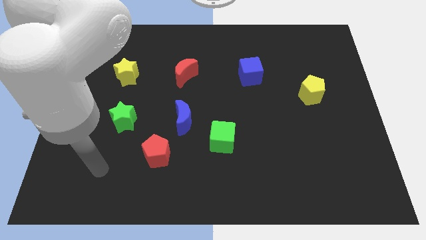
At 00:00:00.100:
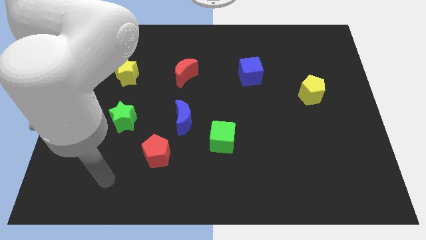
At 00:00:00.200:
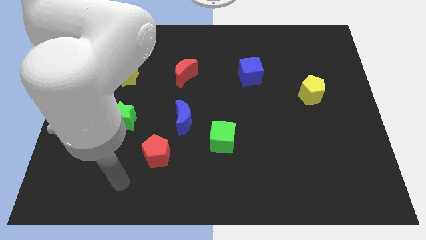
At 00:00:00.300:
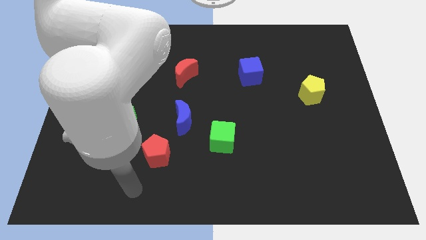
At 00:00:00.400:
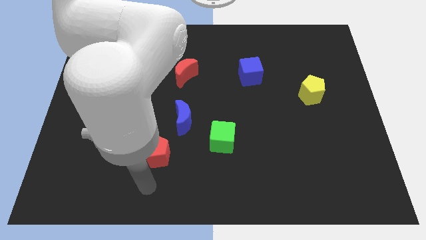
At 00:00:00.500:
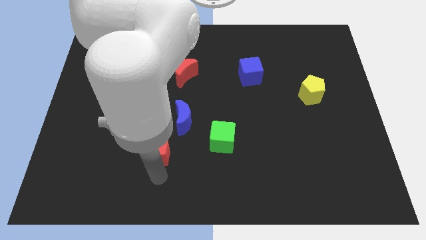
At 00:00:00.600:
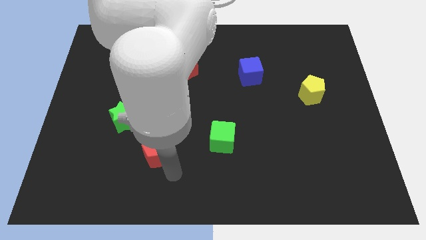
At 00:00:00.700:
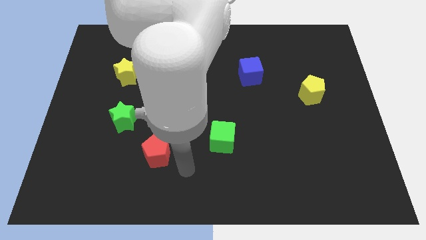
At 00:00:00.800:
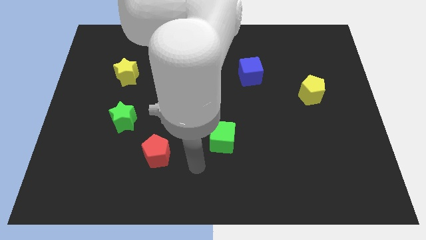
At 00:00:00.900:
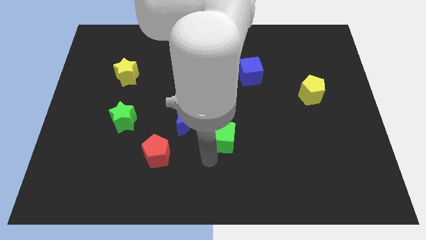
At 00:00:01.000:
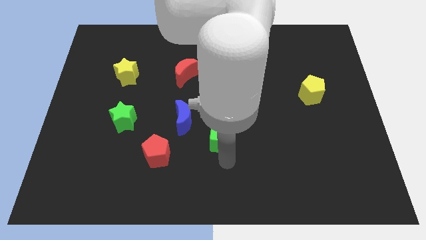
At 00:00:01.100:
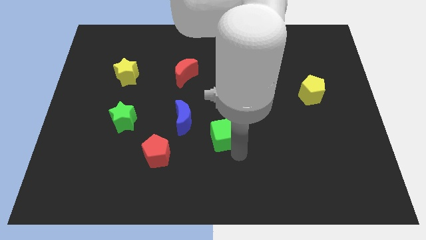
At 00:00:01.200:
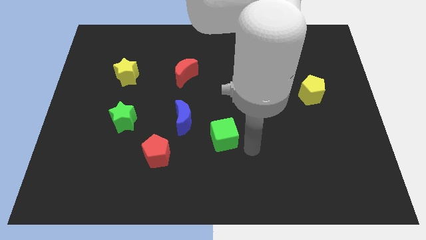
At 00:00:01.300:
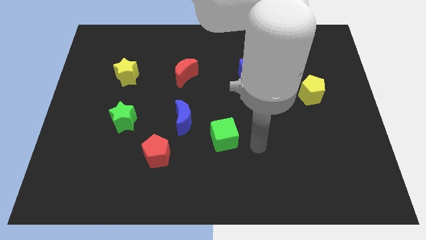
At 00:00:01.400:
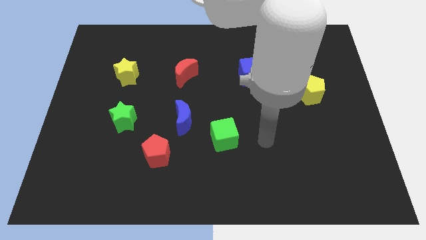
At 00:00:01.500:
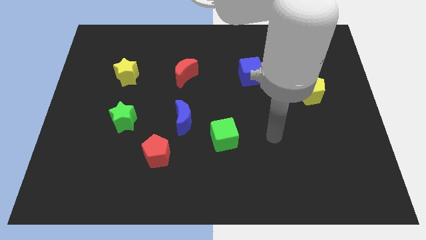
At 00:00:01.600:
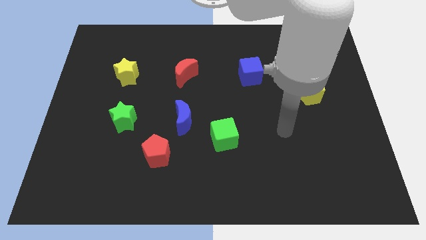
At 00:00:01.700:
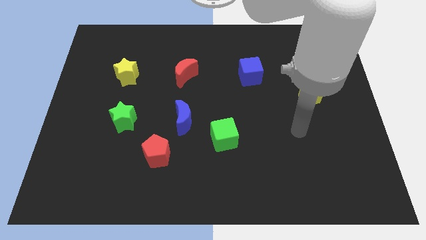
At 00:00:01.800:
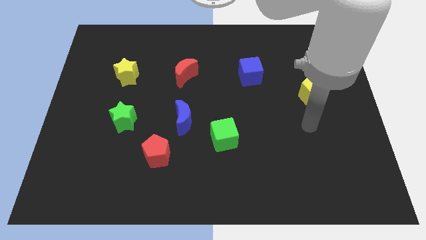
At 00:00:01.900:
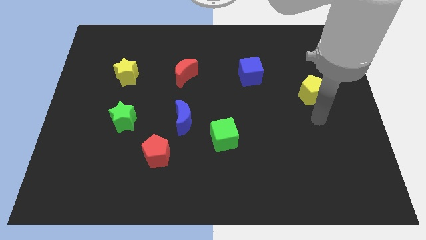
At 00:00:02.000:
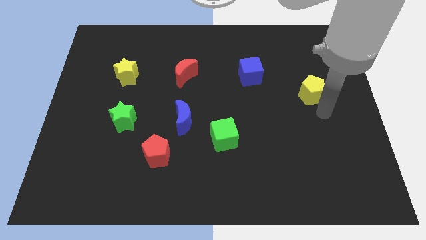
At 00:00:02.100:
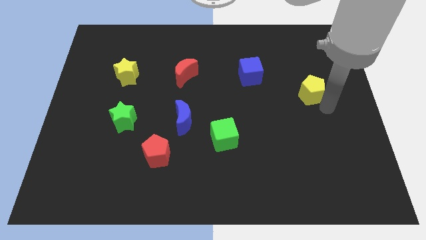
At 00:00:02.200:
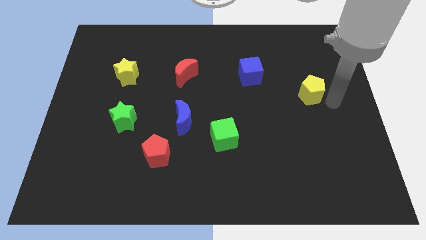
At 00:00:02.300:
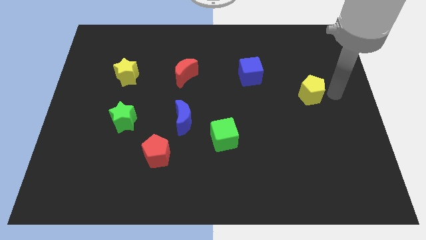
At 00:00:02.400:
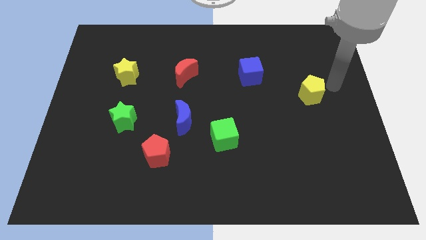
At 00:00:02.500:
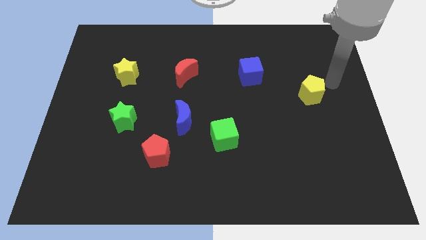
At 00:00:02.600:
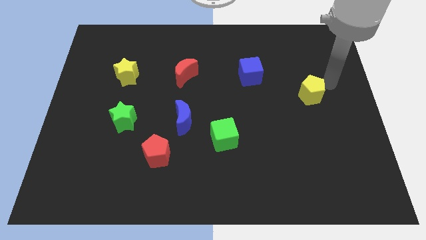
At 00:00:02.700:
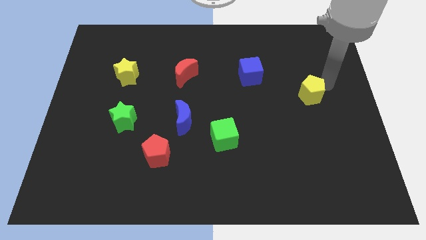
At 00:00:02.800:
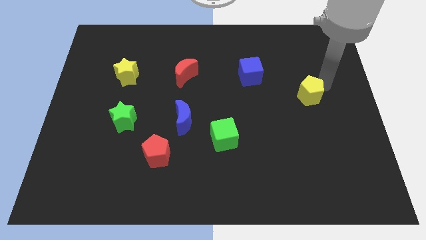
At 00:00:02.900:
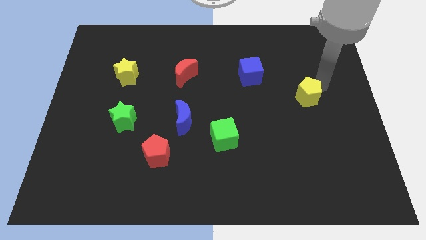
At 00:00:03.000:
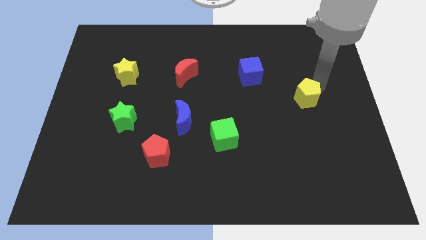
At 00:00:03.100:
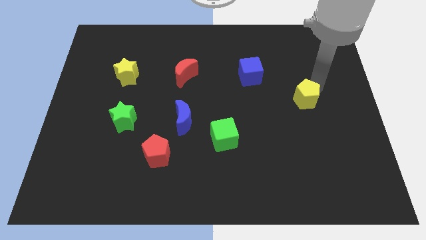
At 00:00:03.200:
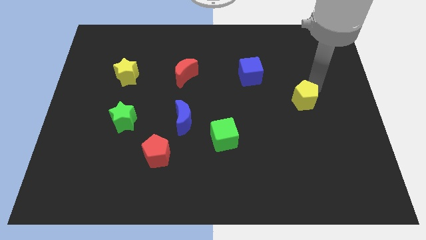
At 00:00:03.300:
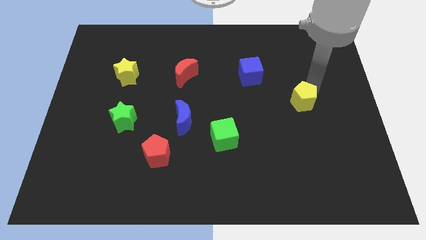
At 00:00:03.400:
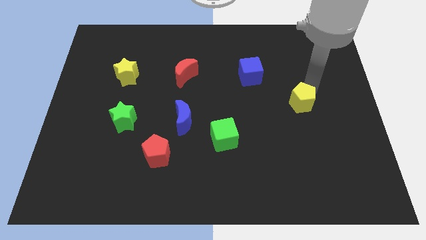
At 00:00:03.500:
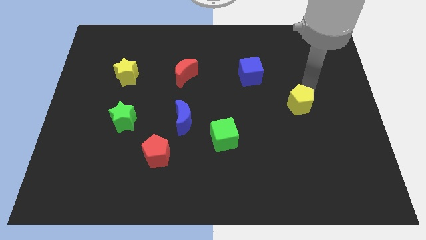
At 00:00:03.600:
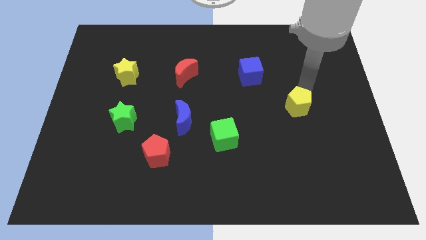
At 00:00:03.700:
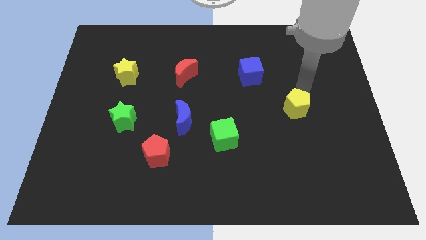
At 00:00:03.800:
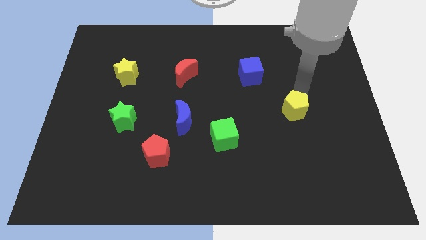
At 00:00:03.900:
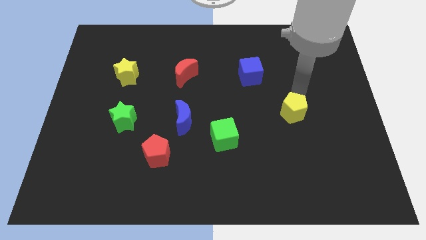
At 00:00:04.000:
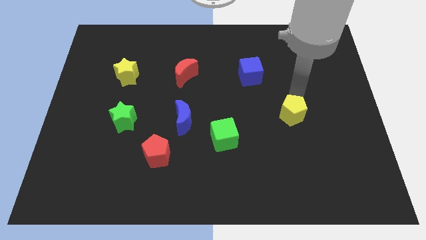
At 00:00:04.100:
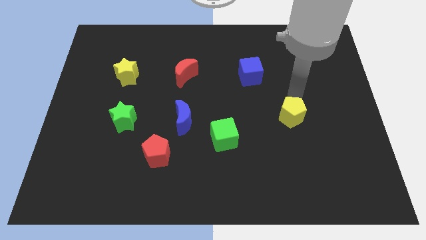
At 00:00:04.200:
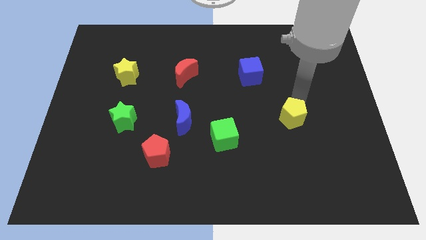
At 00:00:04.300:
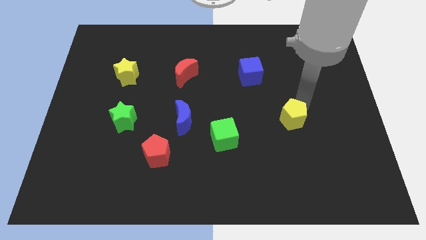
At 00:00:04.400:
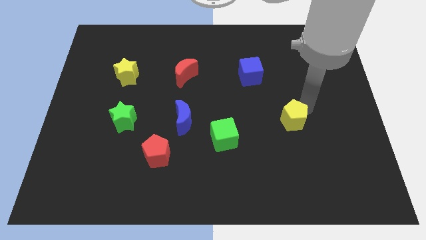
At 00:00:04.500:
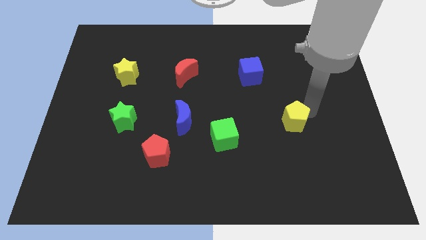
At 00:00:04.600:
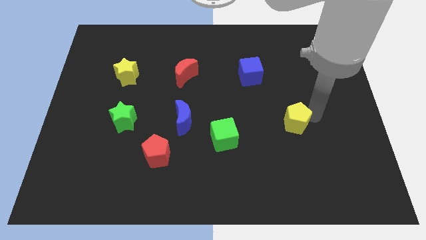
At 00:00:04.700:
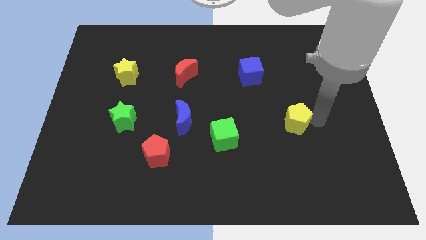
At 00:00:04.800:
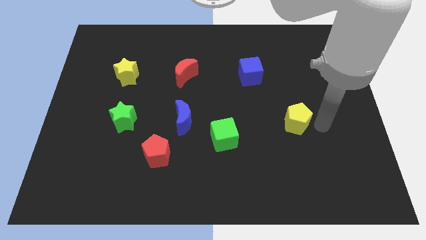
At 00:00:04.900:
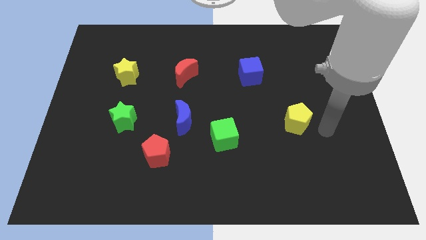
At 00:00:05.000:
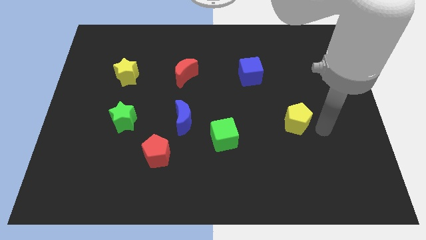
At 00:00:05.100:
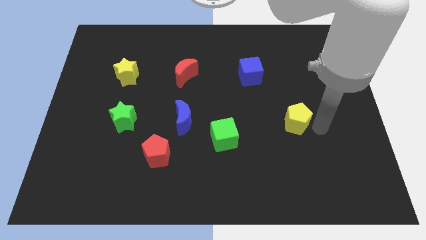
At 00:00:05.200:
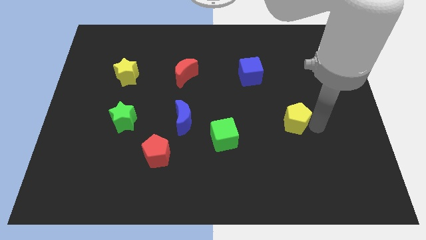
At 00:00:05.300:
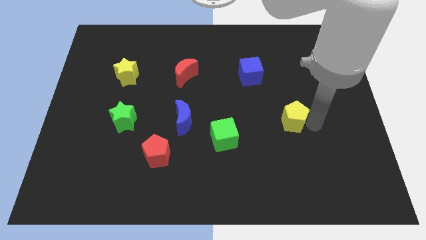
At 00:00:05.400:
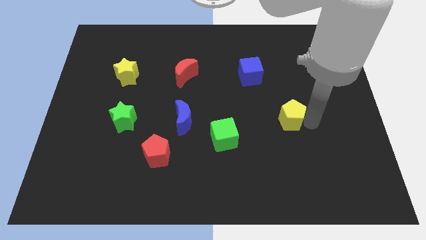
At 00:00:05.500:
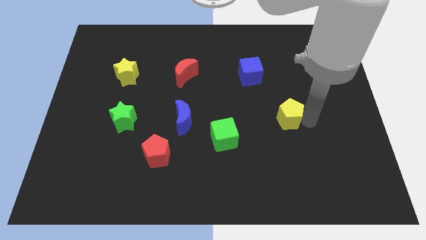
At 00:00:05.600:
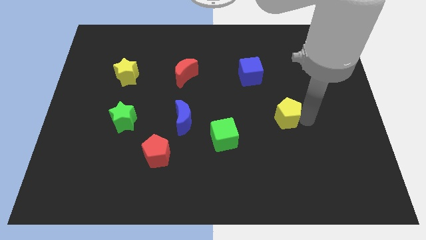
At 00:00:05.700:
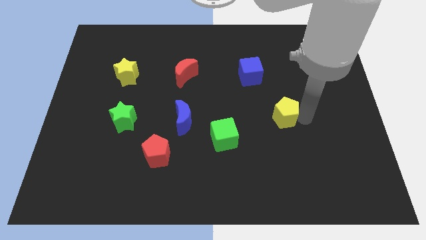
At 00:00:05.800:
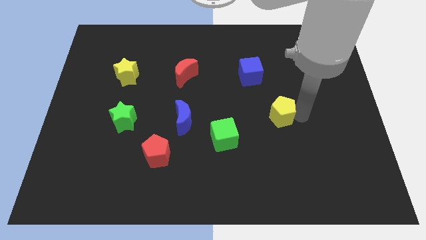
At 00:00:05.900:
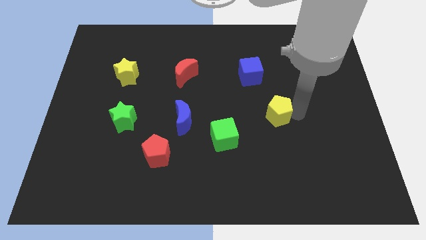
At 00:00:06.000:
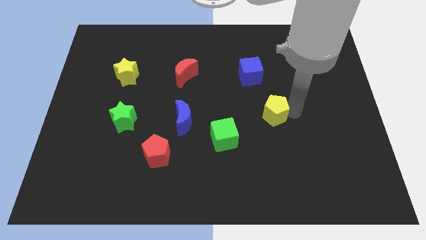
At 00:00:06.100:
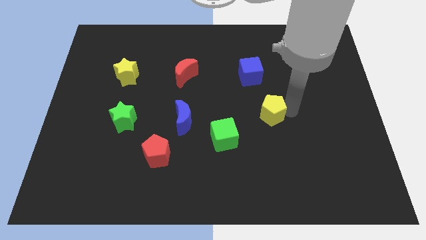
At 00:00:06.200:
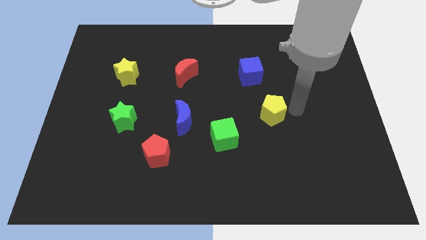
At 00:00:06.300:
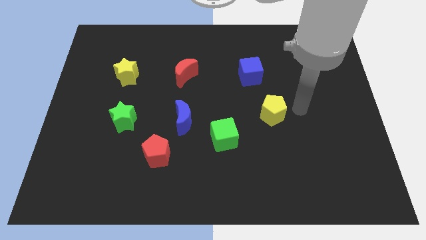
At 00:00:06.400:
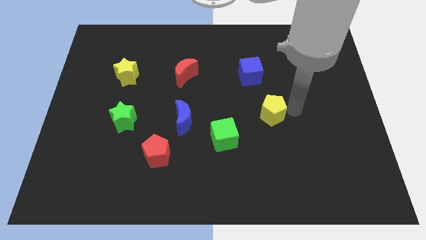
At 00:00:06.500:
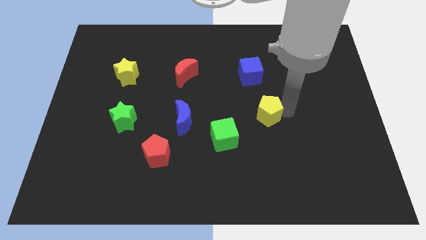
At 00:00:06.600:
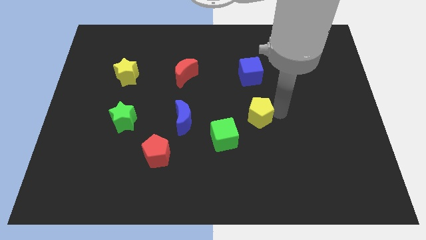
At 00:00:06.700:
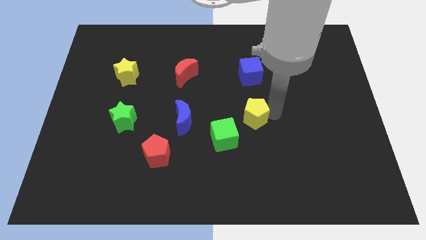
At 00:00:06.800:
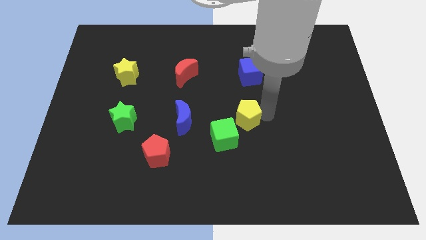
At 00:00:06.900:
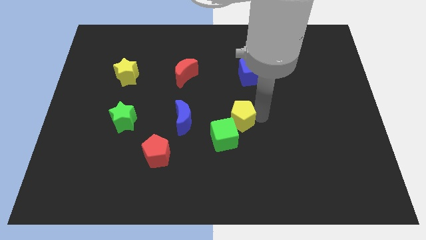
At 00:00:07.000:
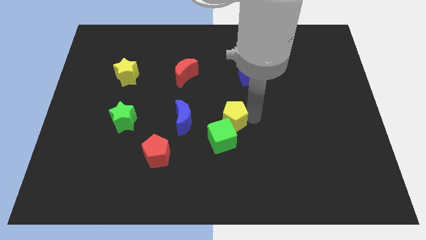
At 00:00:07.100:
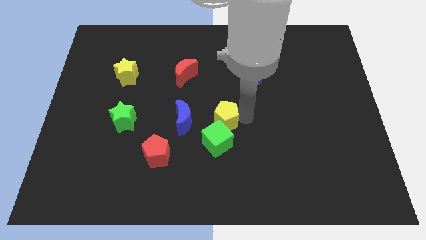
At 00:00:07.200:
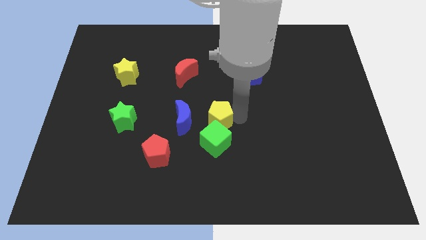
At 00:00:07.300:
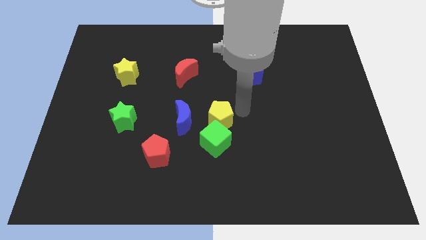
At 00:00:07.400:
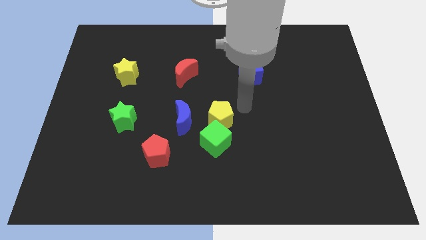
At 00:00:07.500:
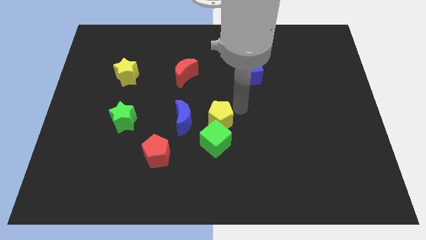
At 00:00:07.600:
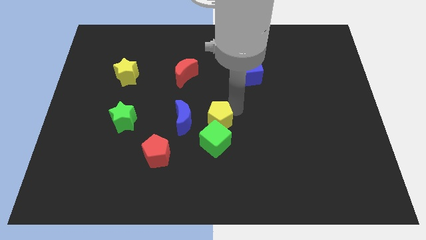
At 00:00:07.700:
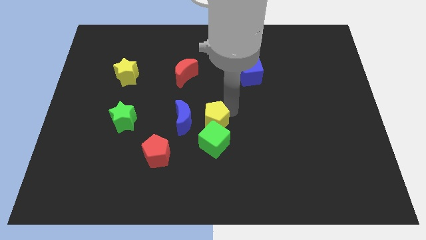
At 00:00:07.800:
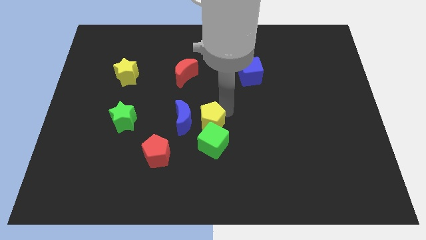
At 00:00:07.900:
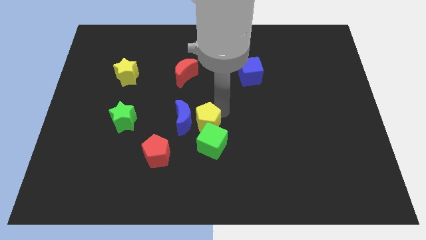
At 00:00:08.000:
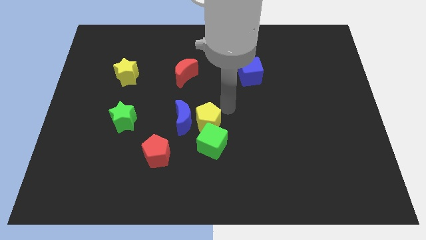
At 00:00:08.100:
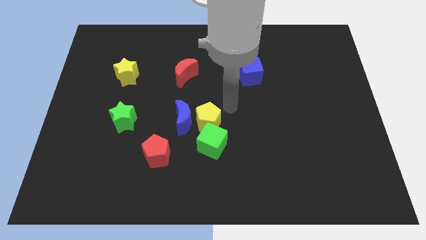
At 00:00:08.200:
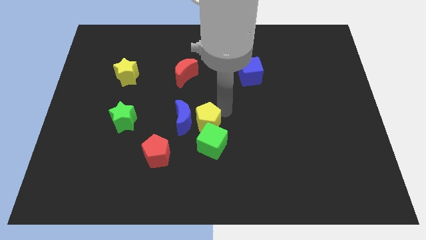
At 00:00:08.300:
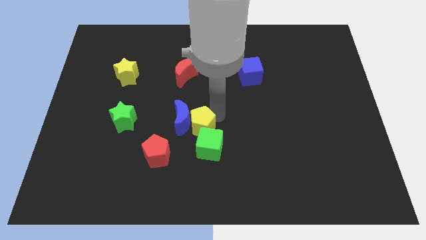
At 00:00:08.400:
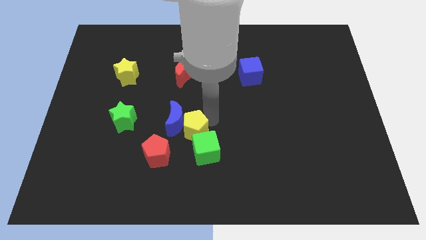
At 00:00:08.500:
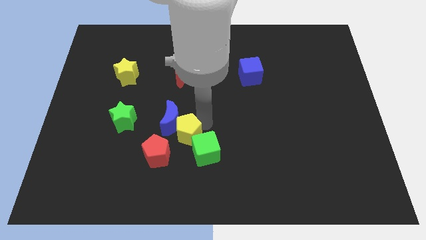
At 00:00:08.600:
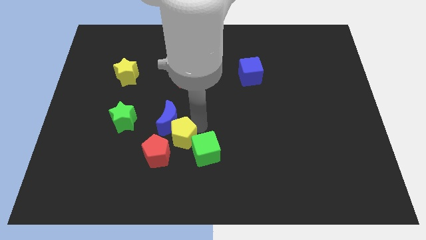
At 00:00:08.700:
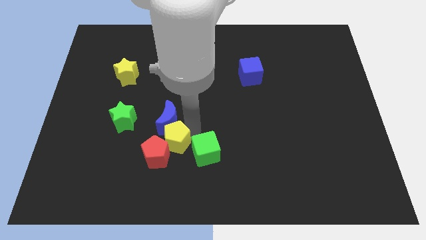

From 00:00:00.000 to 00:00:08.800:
put the yellow pentagon to the red pentagon
